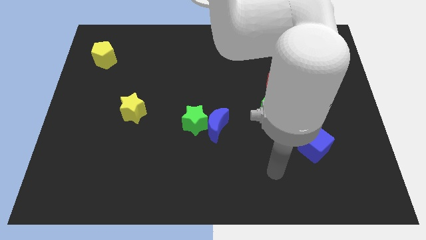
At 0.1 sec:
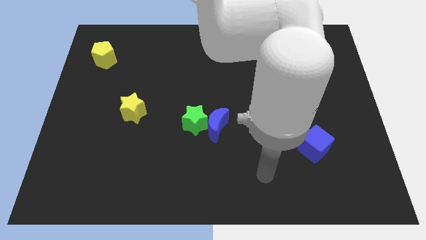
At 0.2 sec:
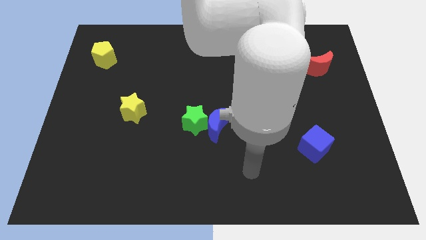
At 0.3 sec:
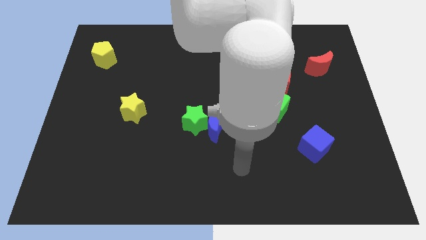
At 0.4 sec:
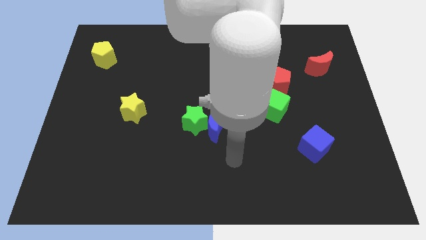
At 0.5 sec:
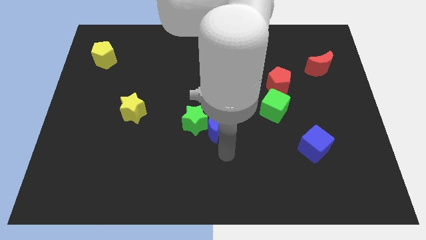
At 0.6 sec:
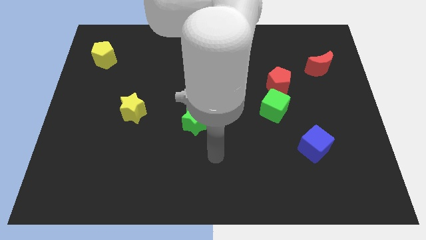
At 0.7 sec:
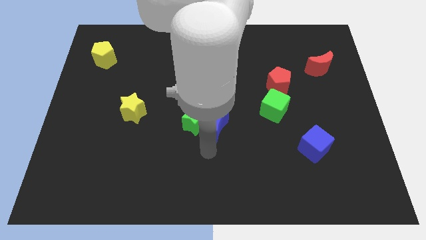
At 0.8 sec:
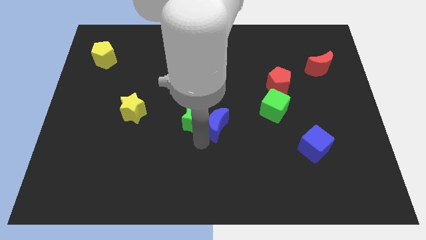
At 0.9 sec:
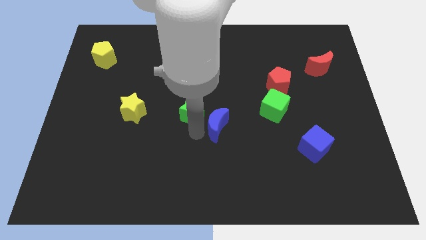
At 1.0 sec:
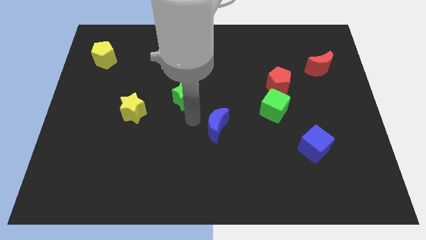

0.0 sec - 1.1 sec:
move the blue moon away from the green star

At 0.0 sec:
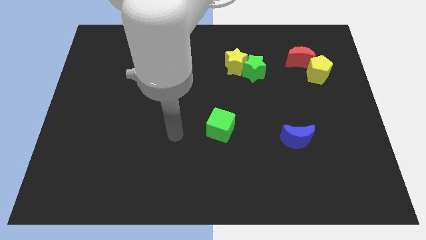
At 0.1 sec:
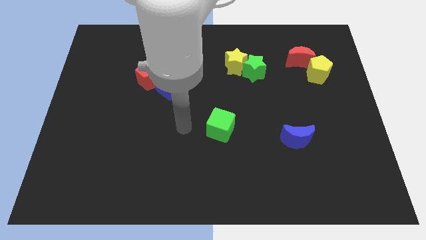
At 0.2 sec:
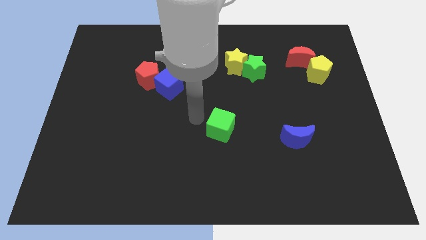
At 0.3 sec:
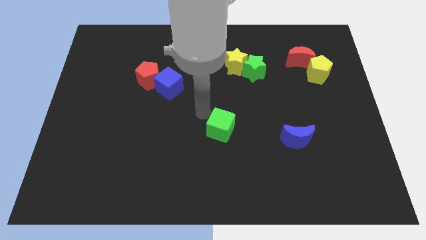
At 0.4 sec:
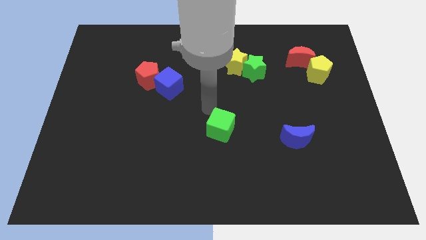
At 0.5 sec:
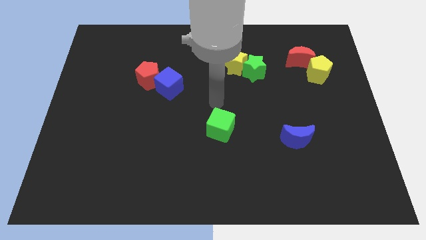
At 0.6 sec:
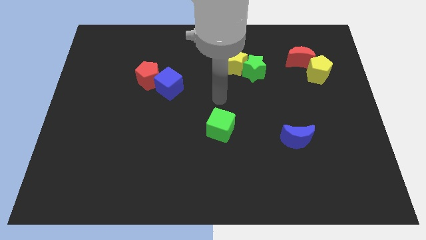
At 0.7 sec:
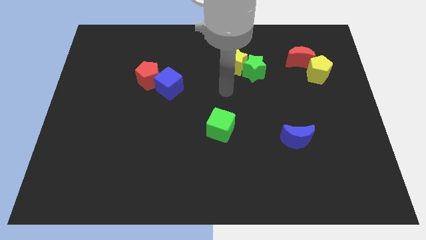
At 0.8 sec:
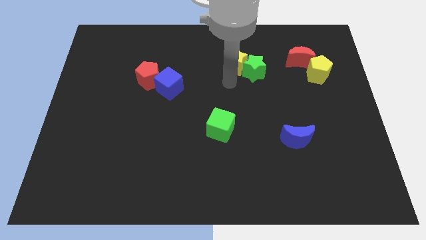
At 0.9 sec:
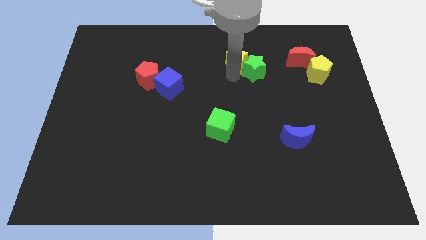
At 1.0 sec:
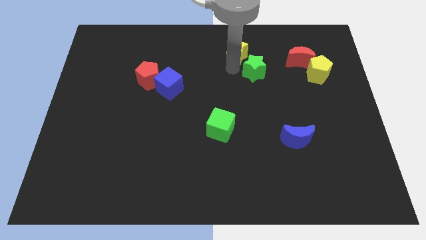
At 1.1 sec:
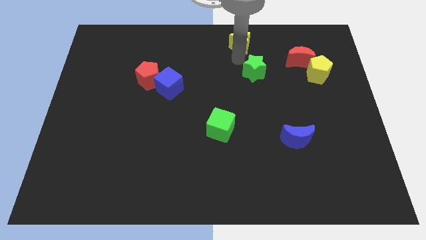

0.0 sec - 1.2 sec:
pull the green star apart from the yellow star

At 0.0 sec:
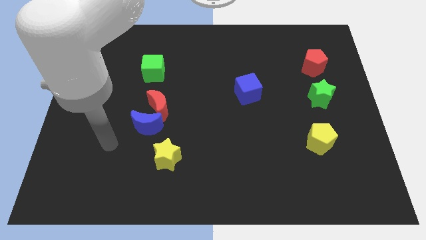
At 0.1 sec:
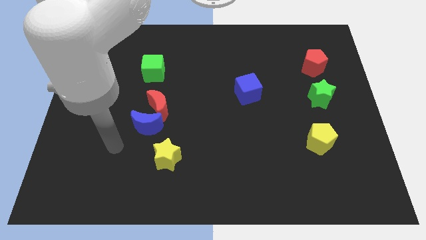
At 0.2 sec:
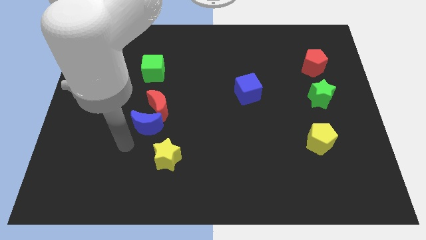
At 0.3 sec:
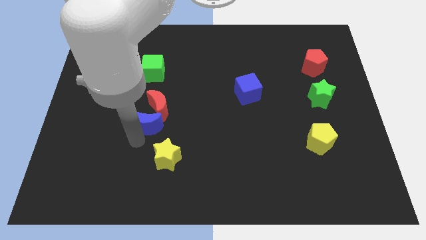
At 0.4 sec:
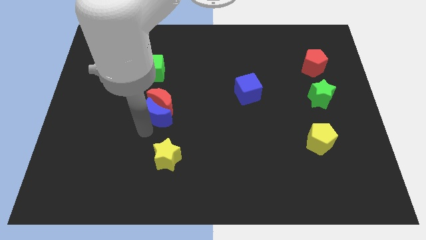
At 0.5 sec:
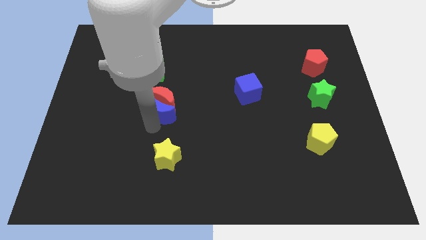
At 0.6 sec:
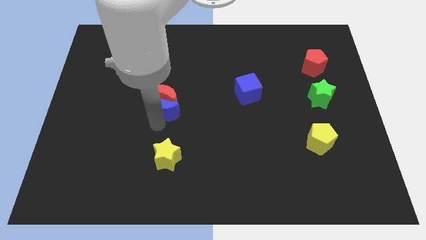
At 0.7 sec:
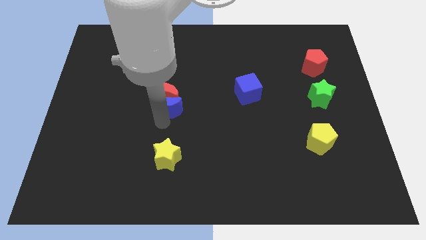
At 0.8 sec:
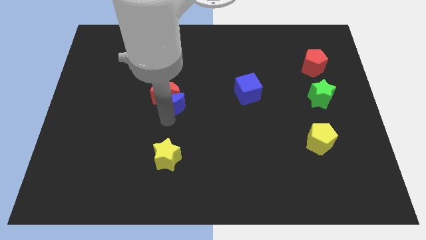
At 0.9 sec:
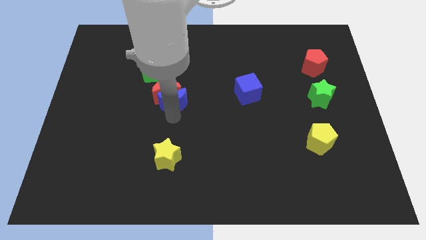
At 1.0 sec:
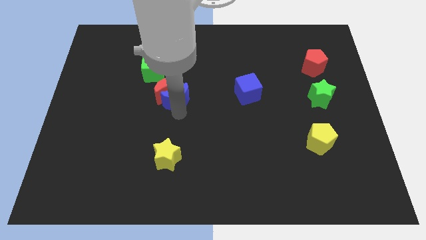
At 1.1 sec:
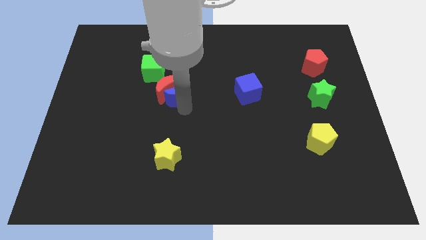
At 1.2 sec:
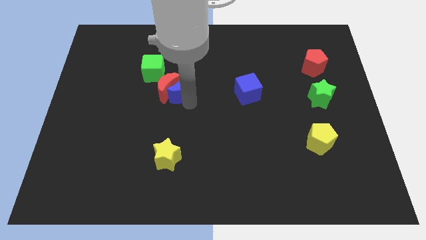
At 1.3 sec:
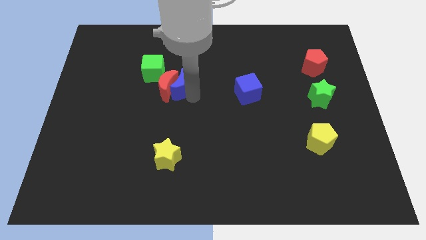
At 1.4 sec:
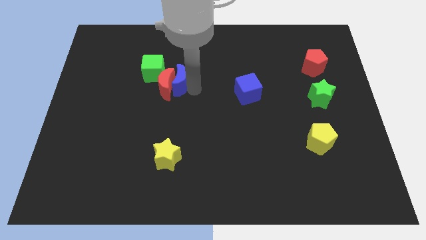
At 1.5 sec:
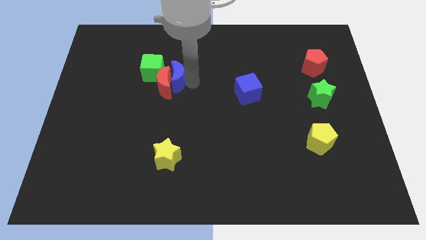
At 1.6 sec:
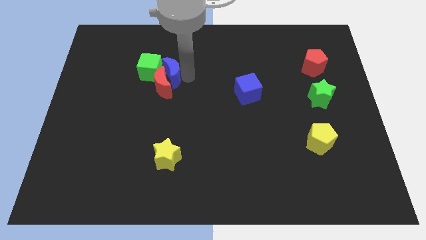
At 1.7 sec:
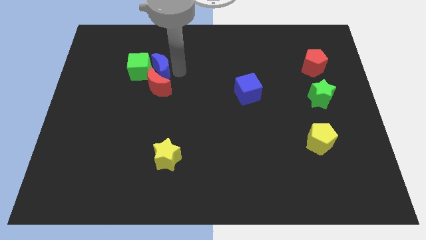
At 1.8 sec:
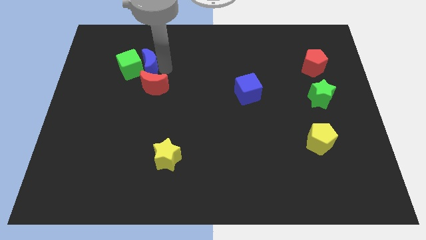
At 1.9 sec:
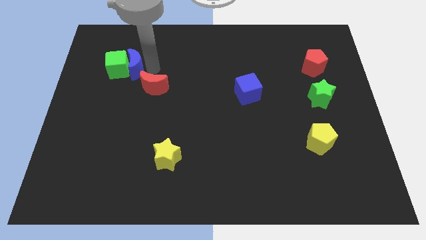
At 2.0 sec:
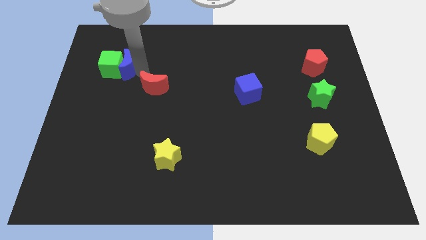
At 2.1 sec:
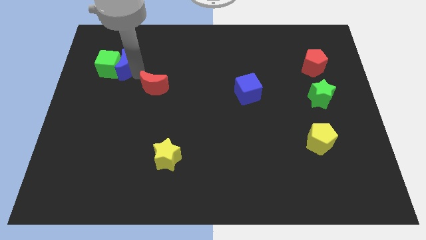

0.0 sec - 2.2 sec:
pull the red moon apart from the blue moon

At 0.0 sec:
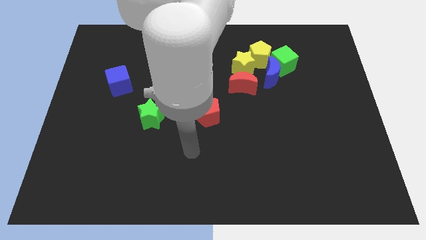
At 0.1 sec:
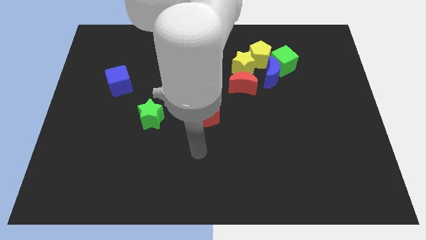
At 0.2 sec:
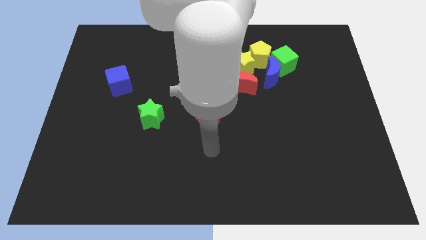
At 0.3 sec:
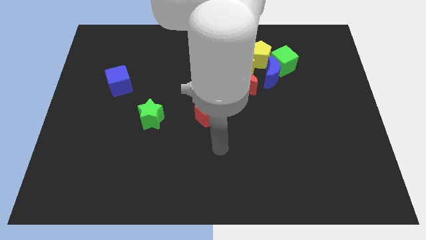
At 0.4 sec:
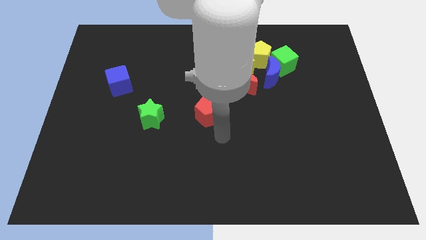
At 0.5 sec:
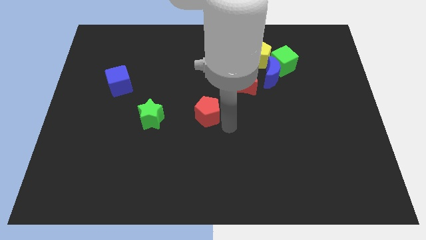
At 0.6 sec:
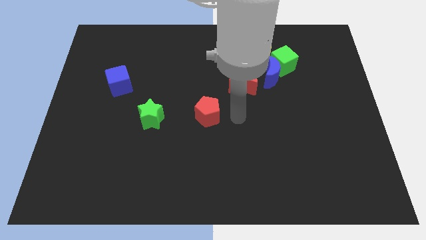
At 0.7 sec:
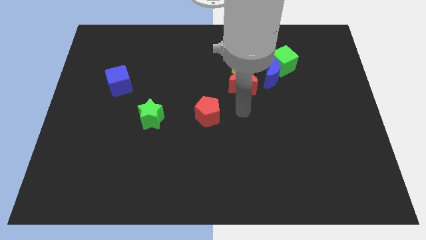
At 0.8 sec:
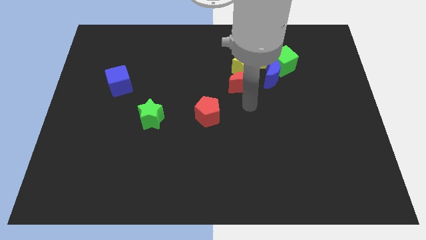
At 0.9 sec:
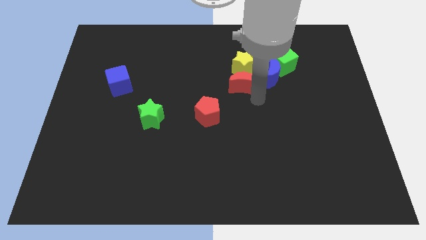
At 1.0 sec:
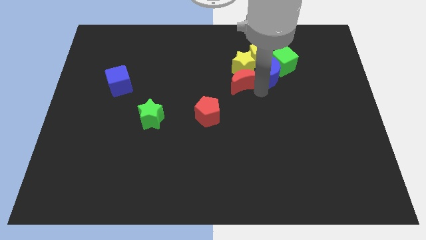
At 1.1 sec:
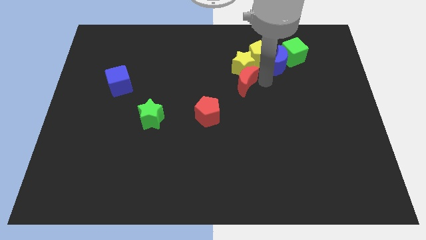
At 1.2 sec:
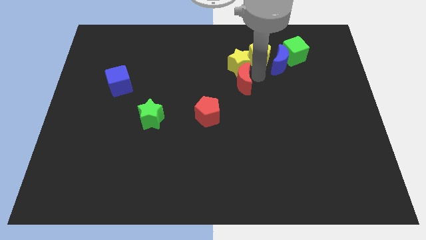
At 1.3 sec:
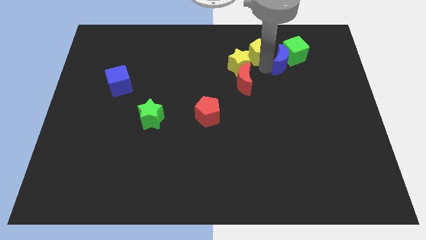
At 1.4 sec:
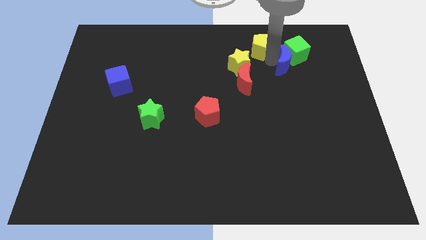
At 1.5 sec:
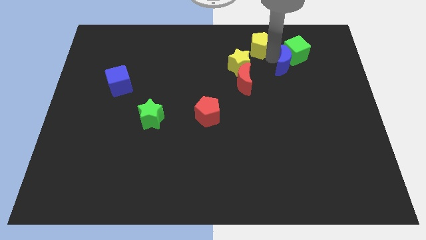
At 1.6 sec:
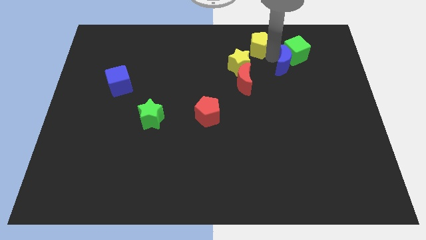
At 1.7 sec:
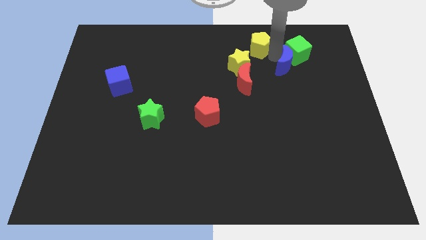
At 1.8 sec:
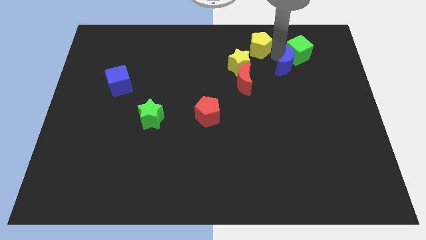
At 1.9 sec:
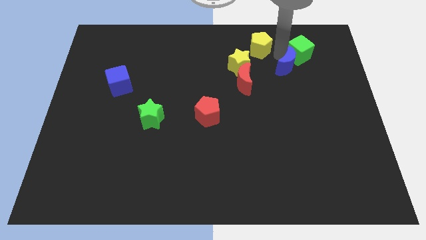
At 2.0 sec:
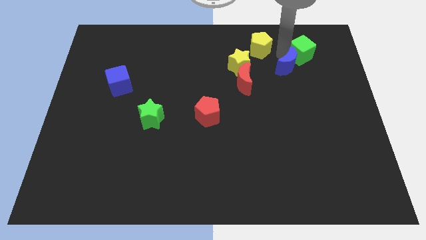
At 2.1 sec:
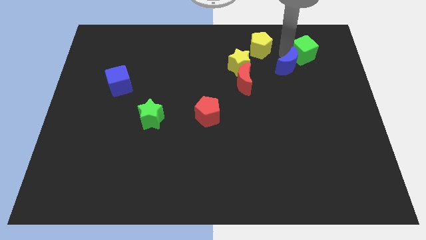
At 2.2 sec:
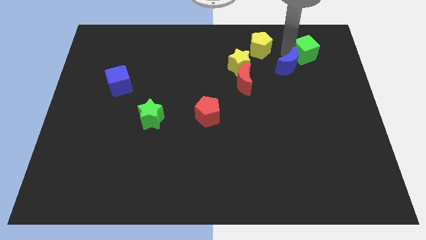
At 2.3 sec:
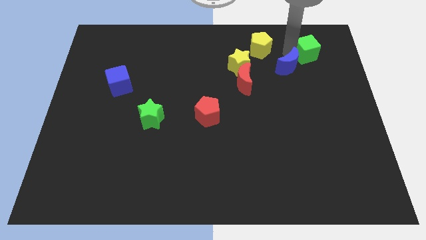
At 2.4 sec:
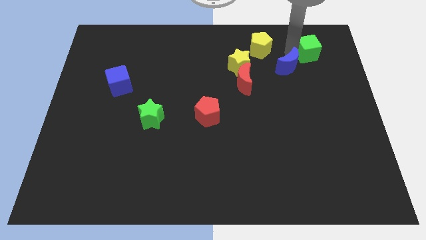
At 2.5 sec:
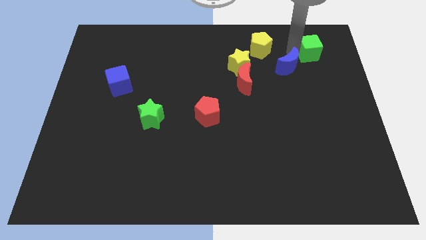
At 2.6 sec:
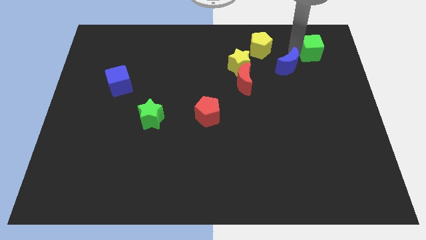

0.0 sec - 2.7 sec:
pull the green cube apart from the blue moon and yellow pentagon

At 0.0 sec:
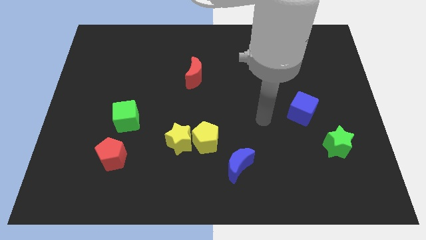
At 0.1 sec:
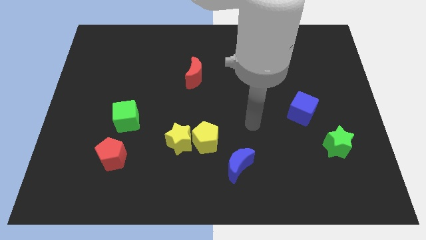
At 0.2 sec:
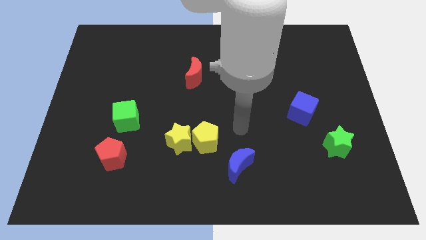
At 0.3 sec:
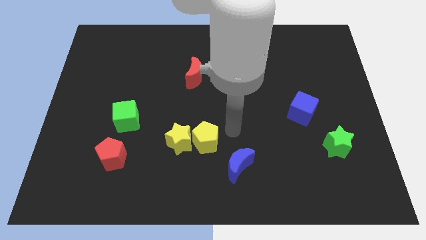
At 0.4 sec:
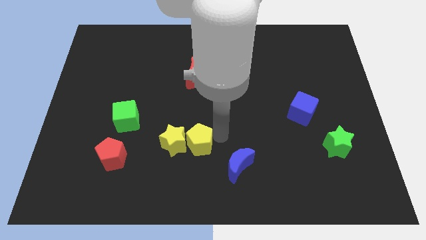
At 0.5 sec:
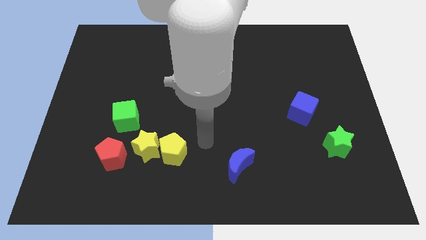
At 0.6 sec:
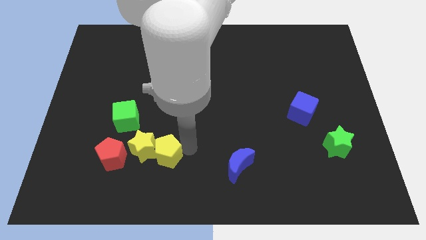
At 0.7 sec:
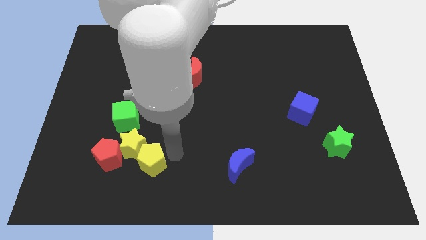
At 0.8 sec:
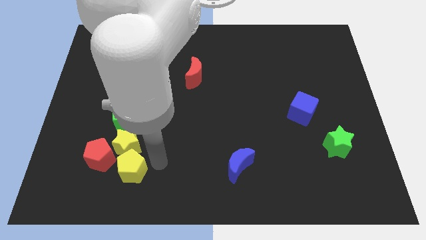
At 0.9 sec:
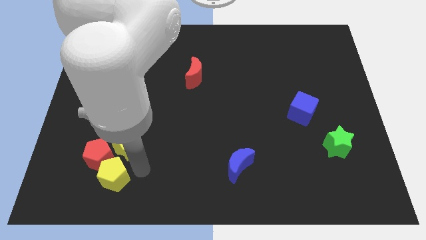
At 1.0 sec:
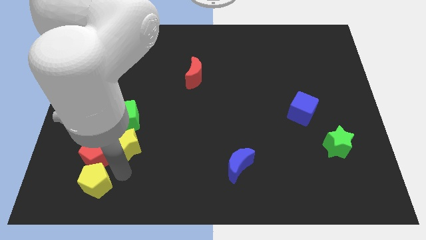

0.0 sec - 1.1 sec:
pull the yellow star apart from the yellow pentagon

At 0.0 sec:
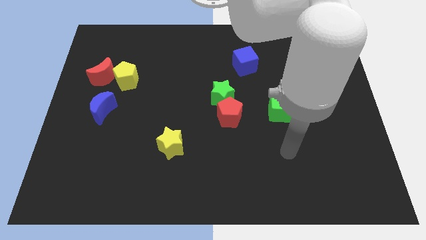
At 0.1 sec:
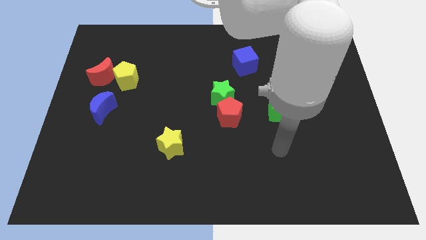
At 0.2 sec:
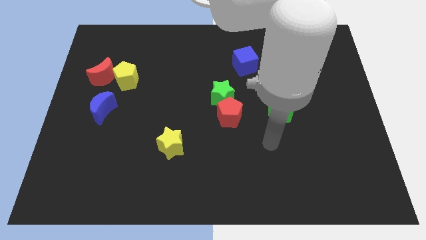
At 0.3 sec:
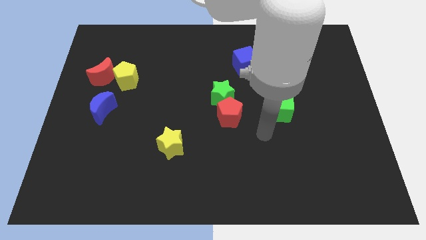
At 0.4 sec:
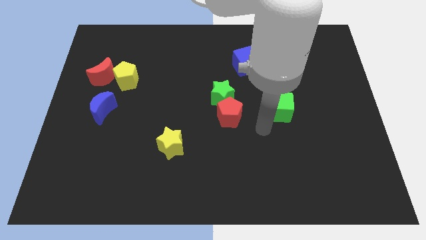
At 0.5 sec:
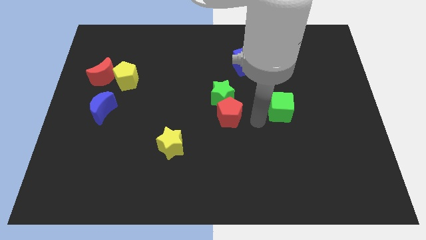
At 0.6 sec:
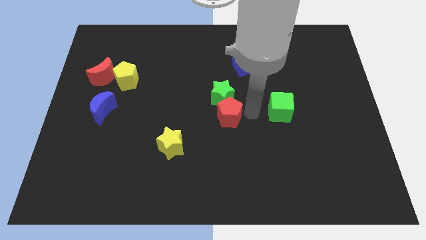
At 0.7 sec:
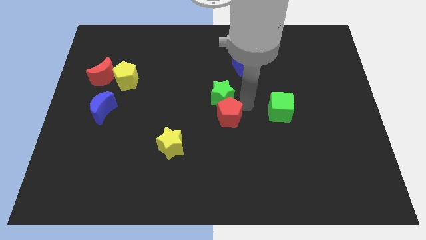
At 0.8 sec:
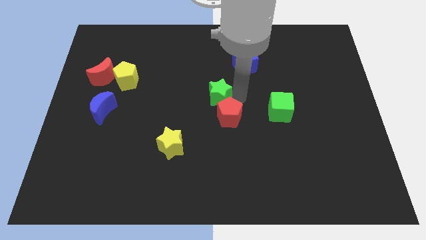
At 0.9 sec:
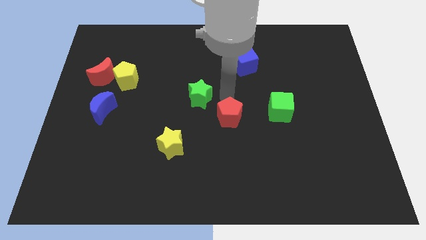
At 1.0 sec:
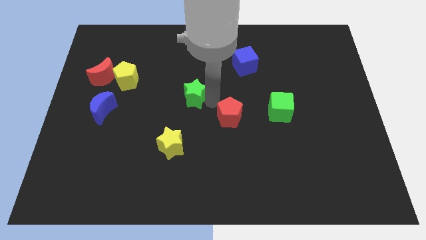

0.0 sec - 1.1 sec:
move the red pentagon away from the green star
